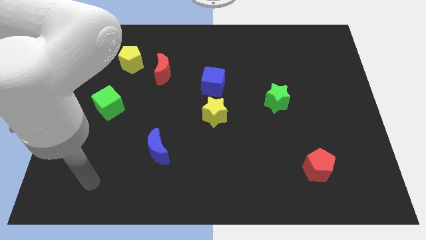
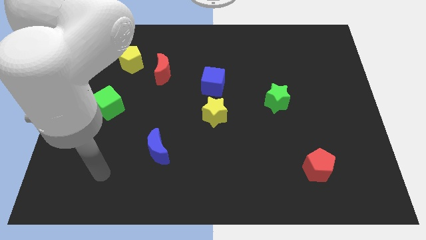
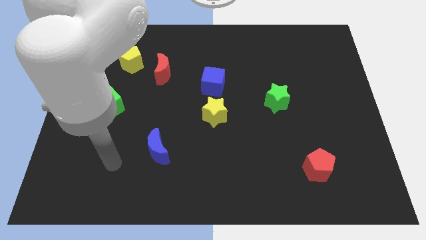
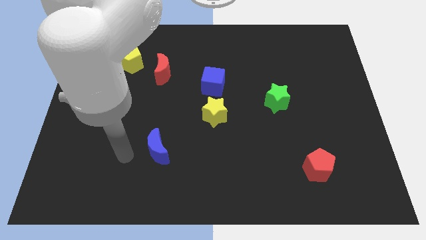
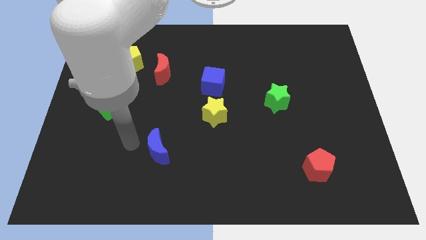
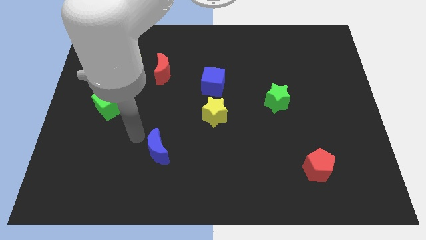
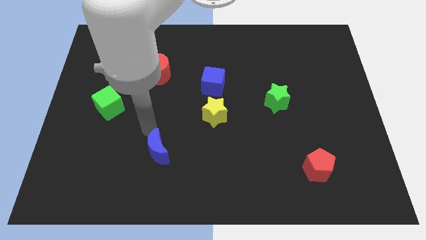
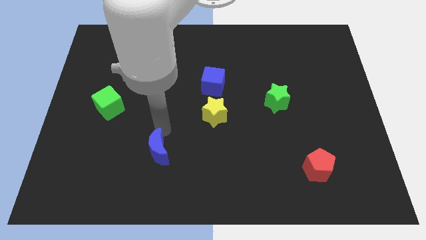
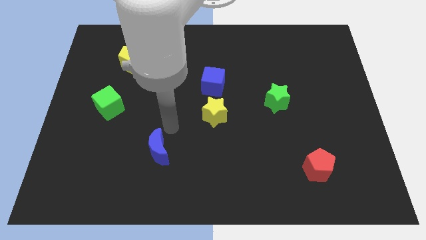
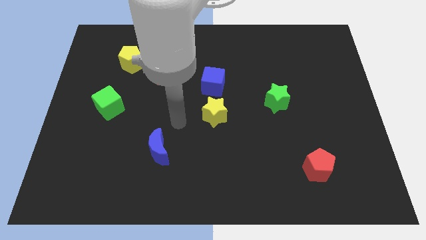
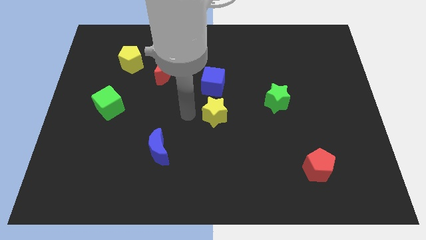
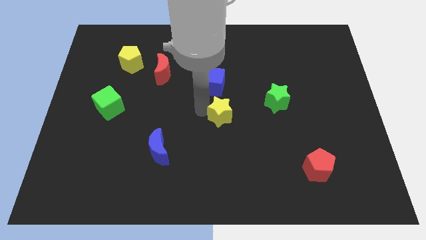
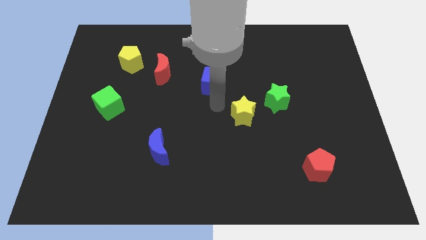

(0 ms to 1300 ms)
move the blue cube away from the yellow star

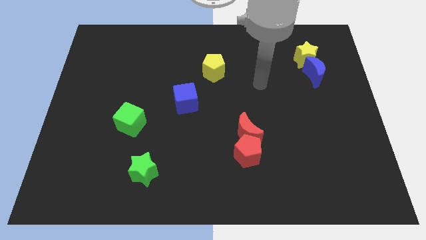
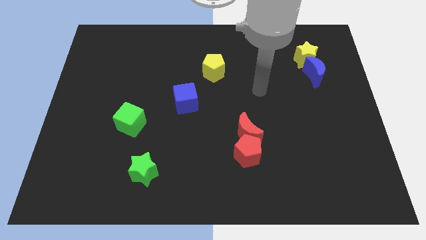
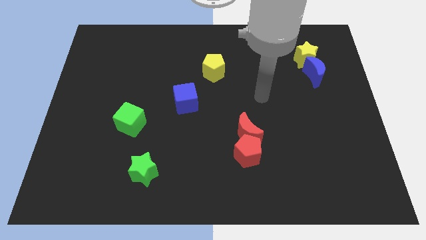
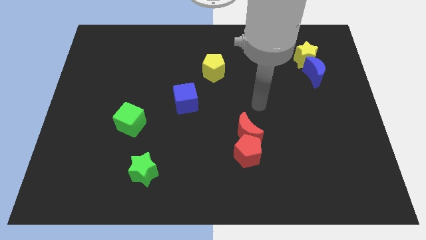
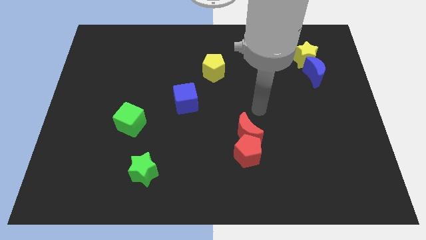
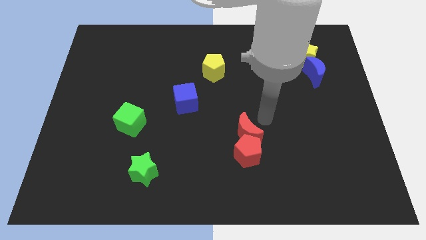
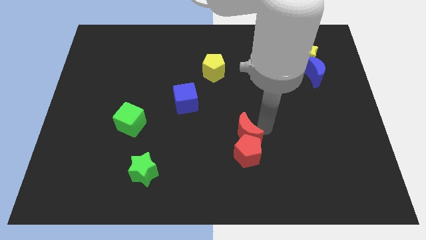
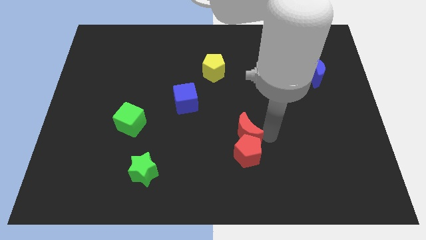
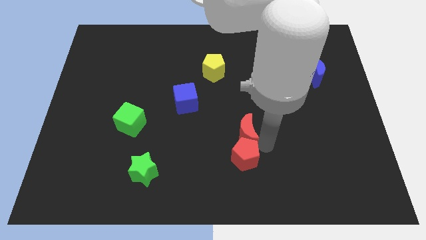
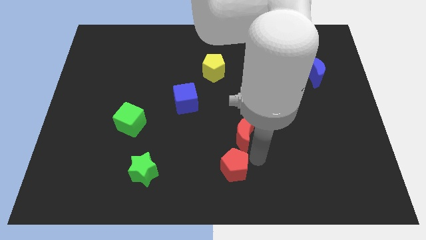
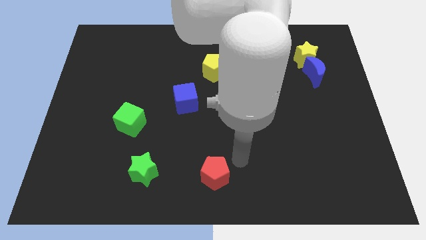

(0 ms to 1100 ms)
move the red moon away from the red pentagon

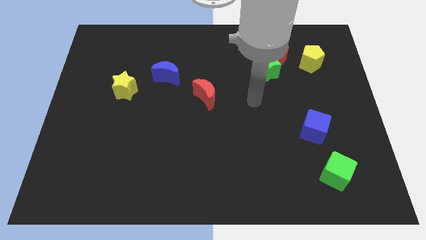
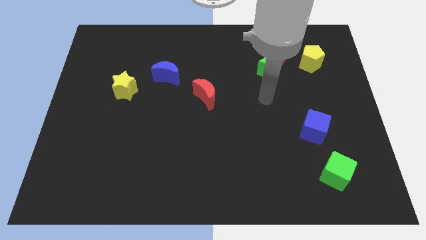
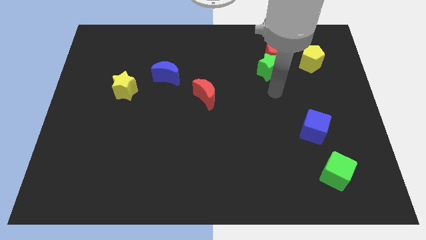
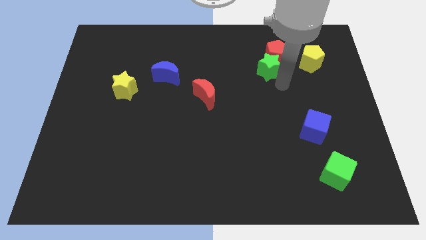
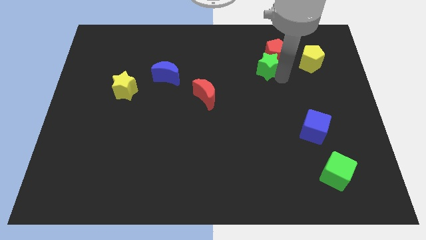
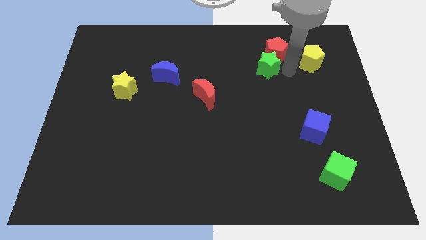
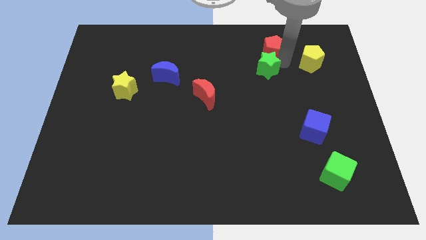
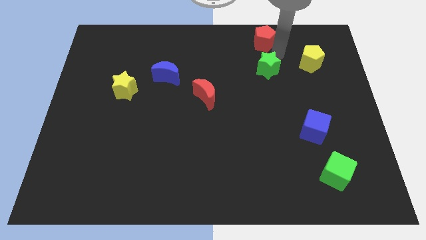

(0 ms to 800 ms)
pull the green star apart from the red pentagon

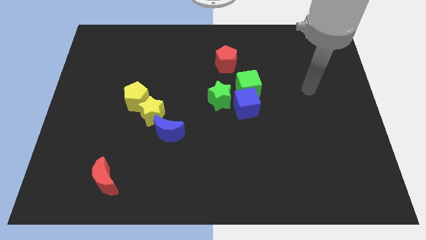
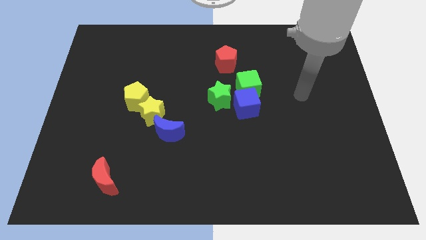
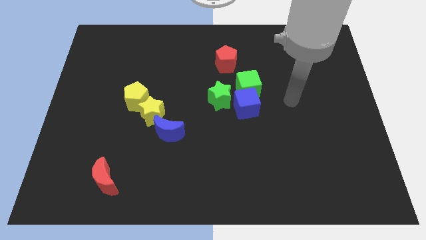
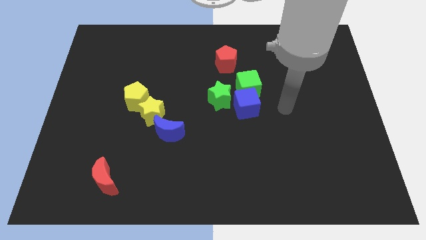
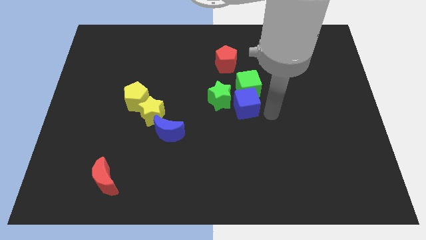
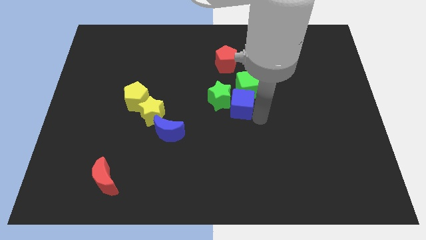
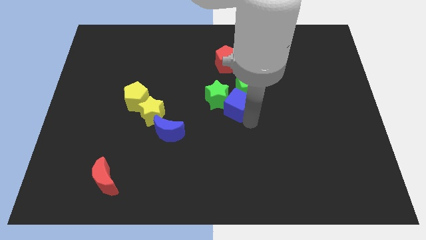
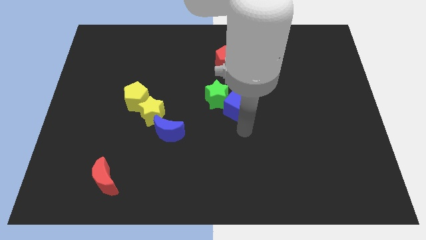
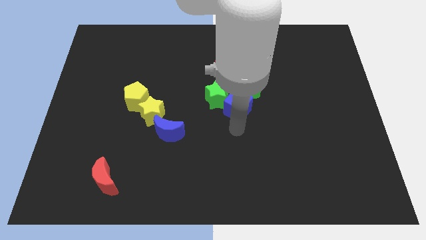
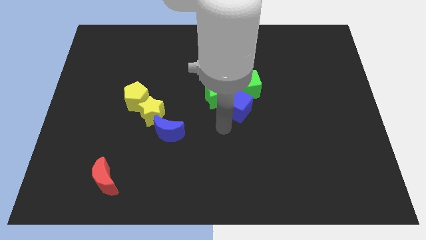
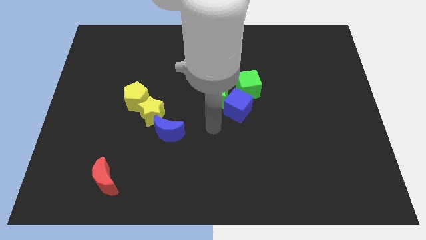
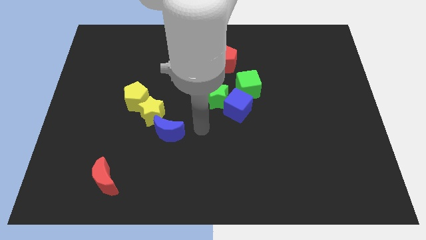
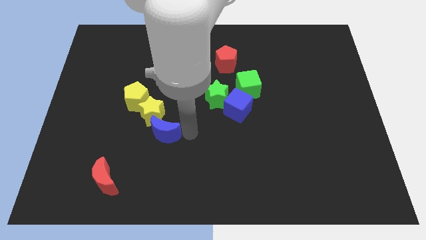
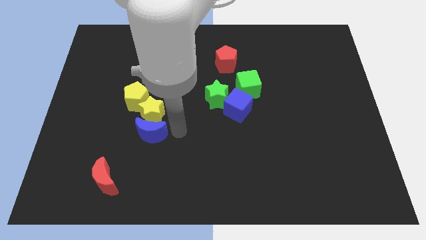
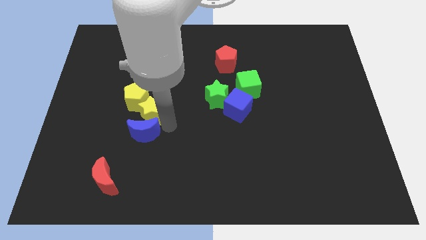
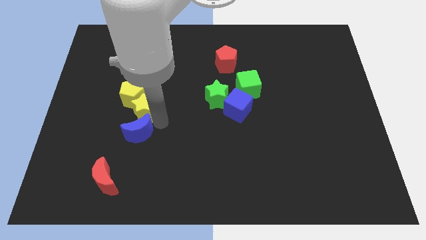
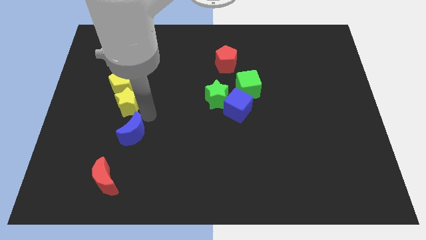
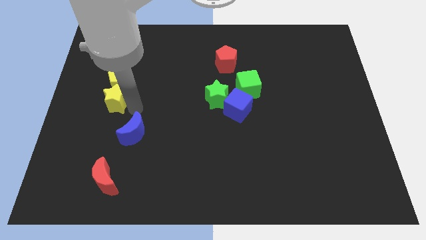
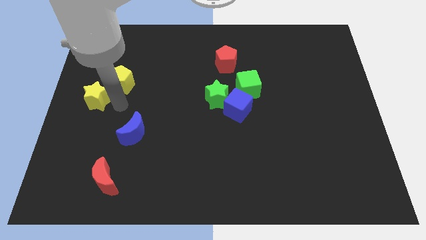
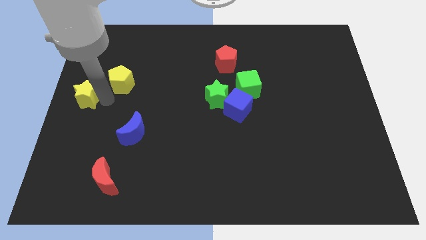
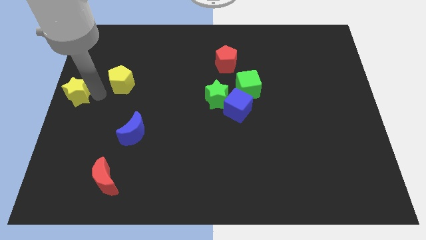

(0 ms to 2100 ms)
separate the yellow pentagon from the yellow star

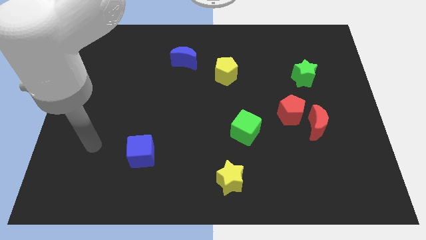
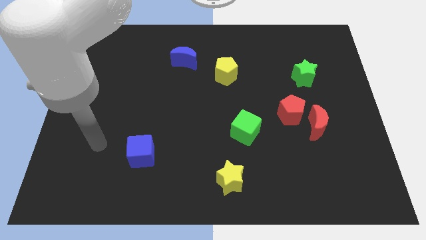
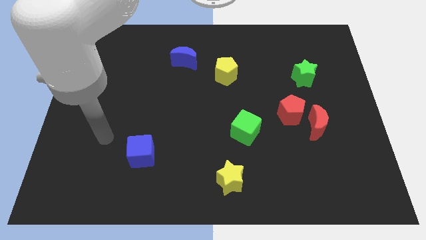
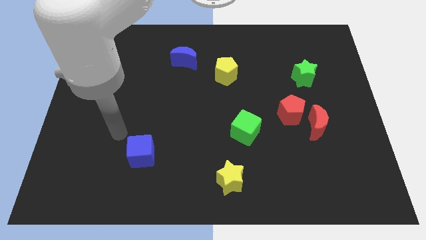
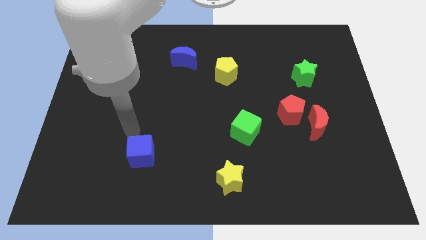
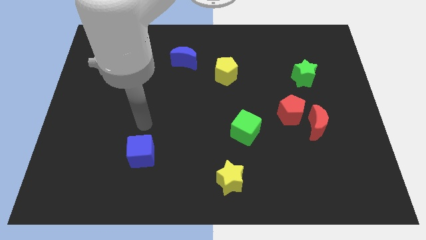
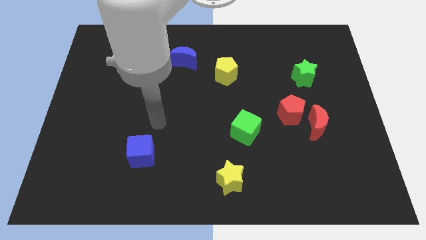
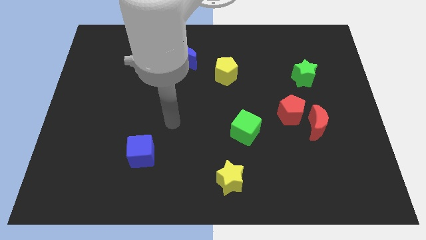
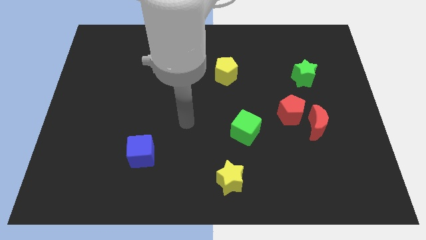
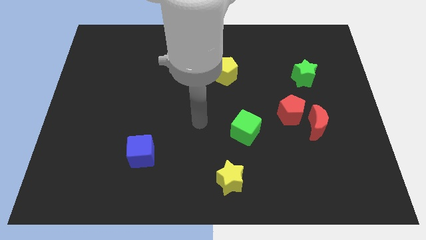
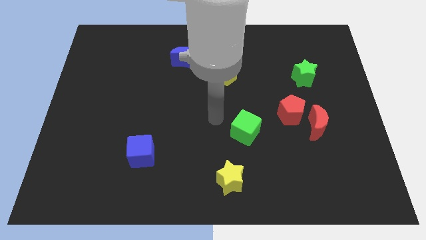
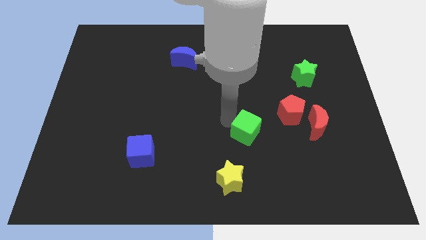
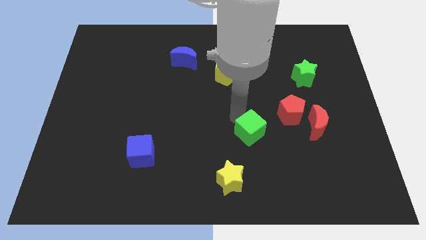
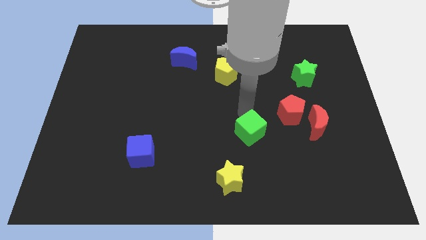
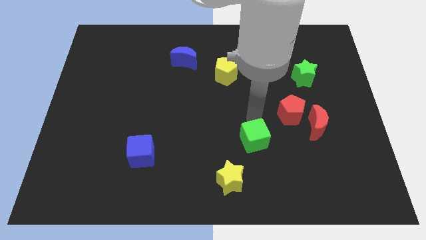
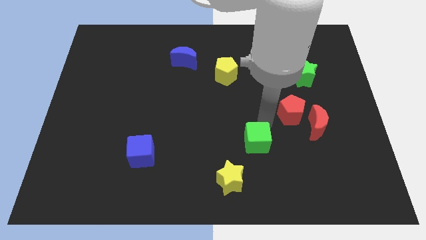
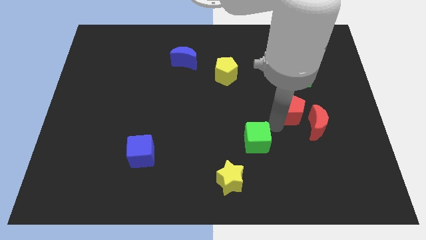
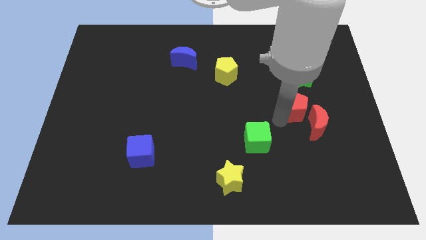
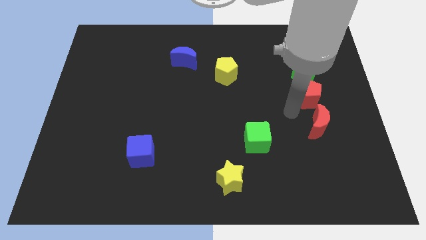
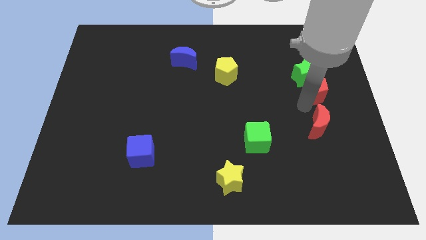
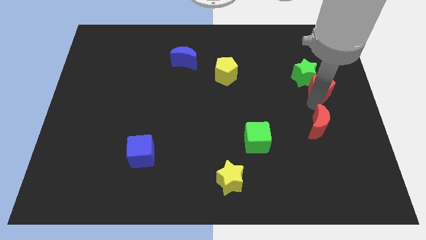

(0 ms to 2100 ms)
separate the red moon from the red pentagon

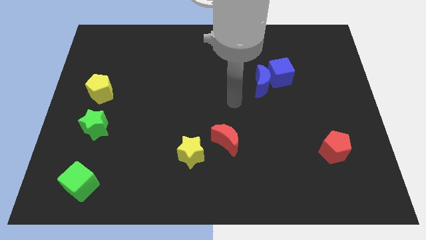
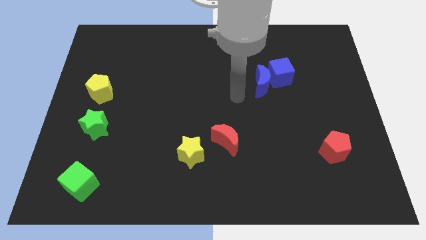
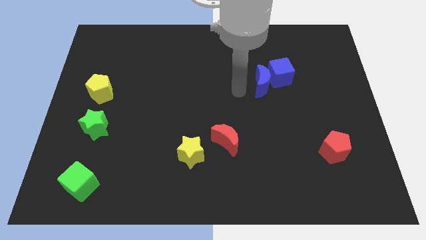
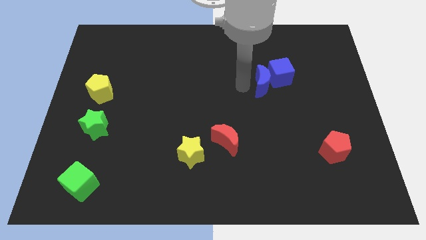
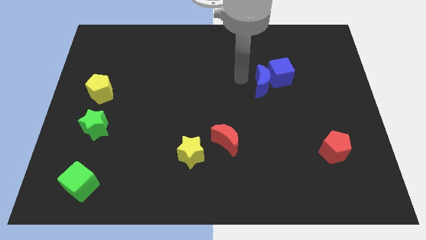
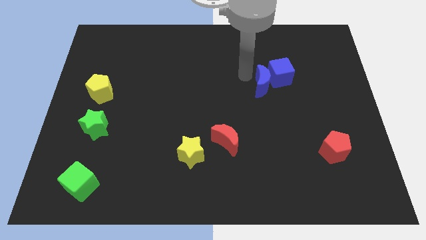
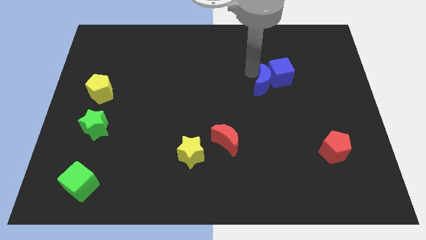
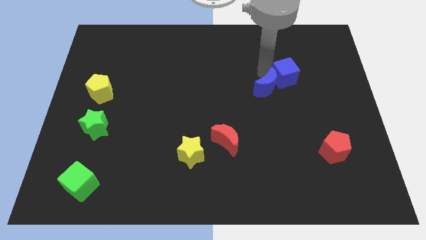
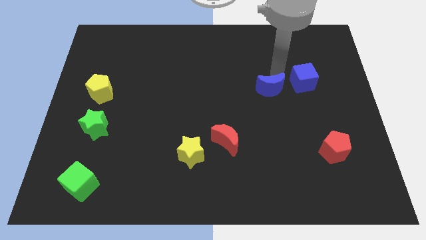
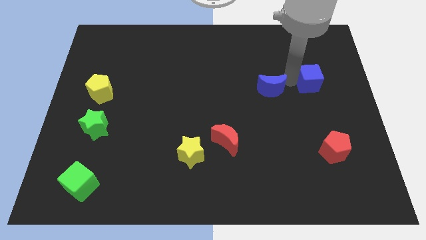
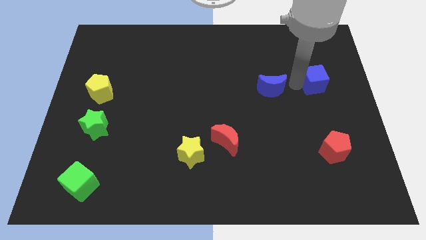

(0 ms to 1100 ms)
pull the blue moon apart from the blue cube

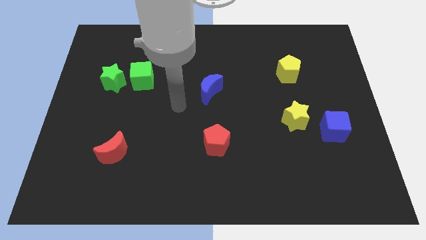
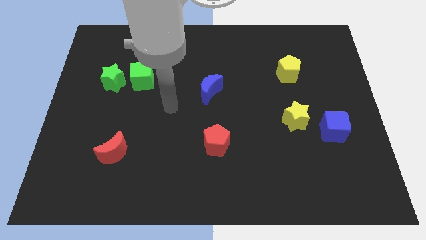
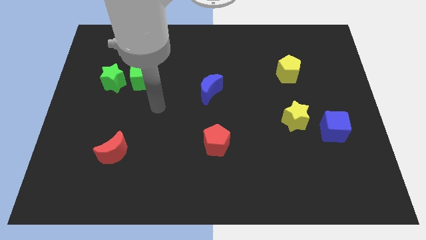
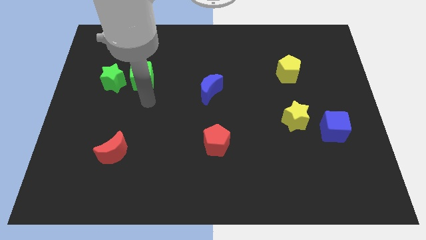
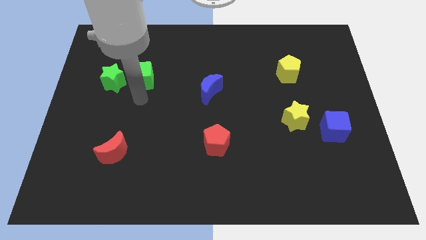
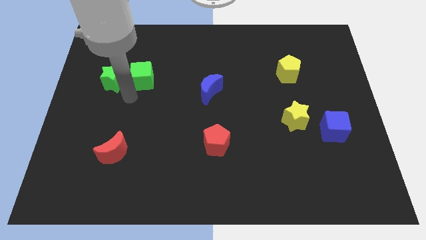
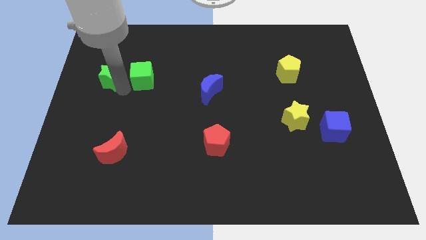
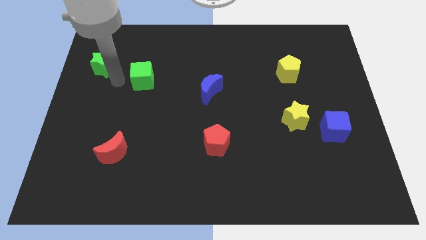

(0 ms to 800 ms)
pull the green cube apart from the green star
